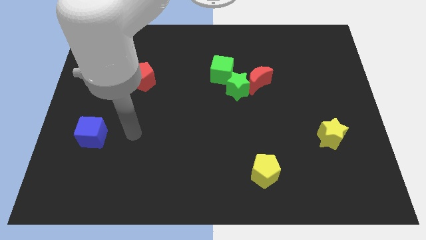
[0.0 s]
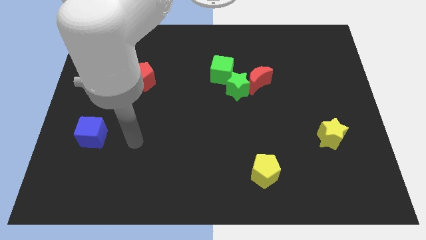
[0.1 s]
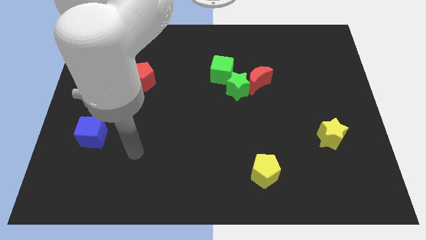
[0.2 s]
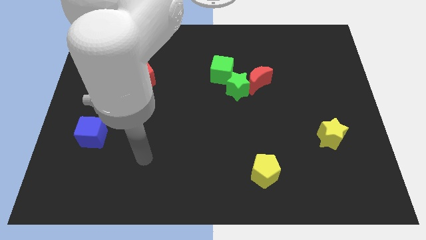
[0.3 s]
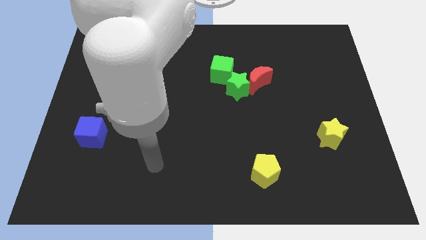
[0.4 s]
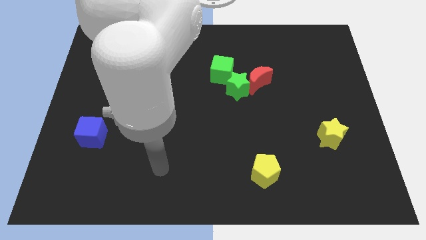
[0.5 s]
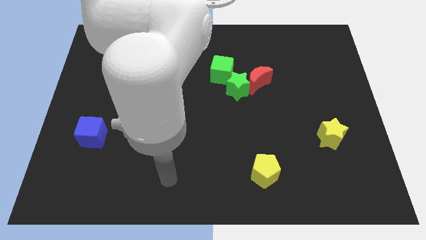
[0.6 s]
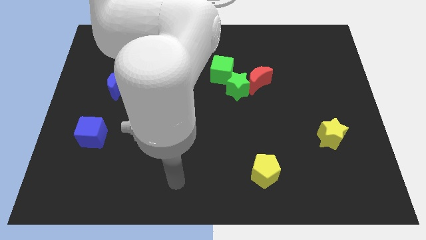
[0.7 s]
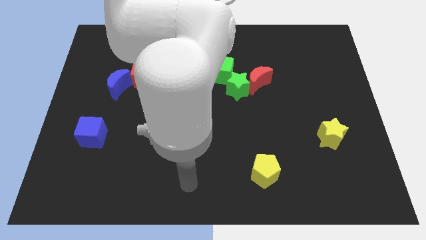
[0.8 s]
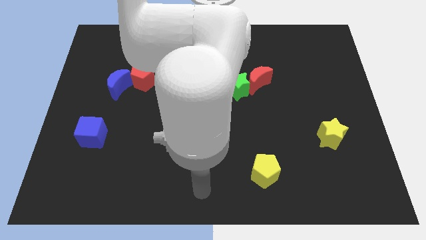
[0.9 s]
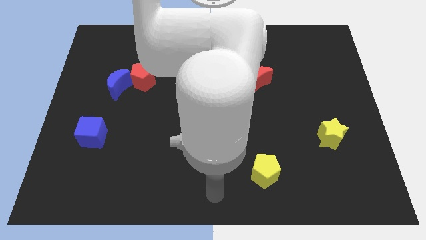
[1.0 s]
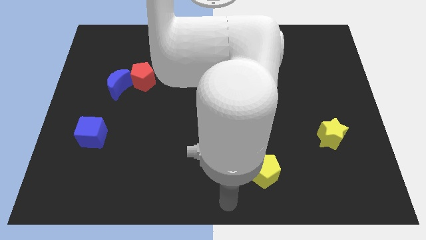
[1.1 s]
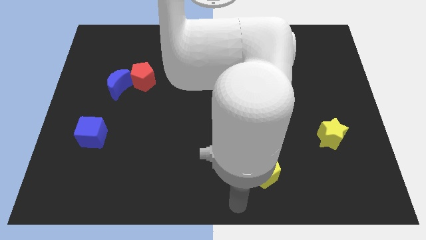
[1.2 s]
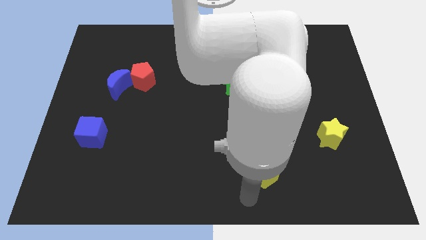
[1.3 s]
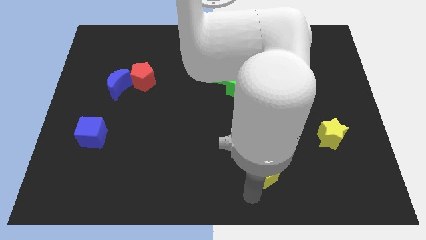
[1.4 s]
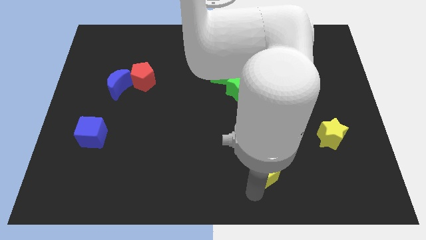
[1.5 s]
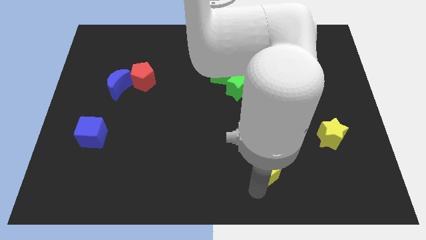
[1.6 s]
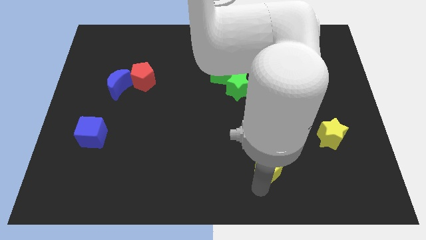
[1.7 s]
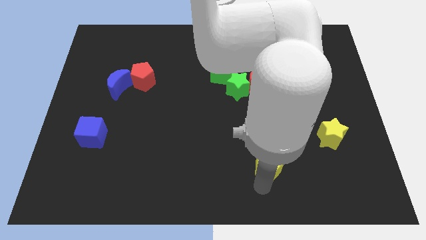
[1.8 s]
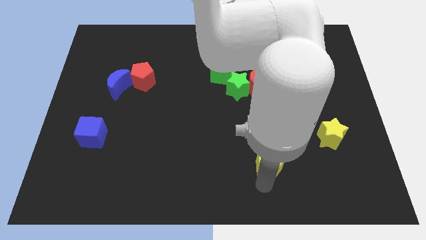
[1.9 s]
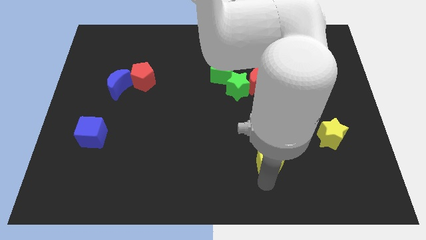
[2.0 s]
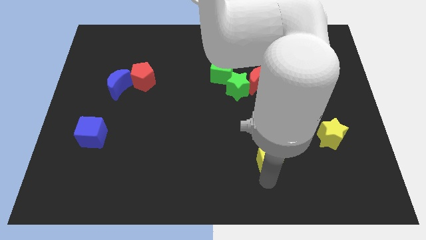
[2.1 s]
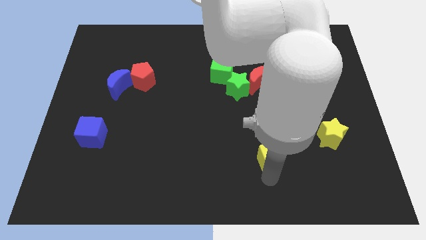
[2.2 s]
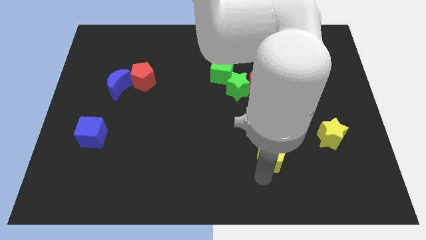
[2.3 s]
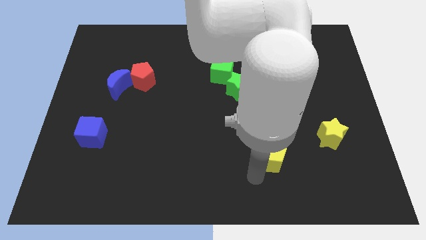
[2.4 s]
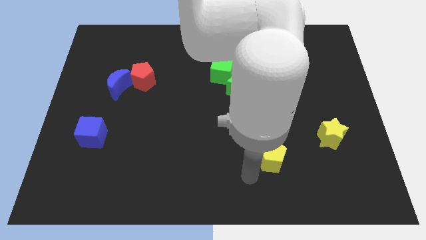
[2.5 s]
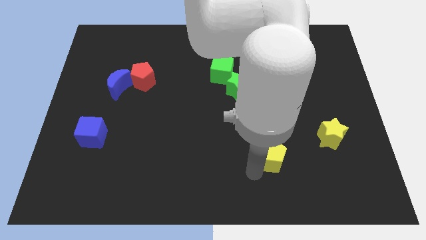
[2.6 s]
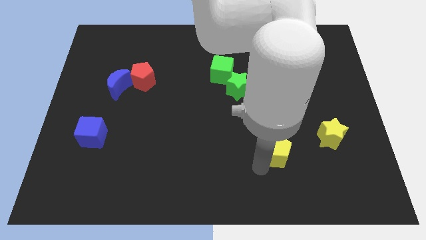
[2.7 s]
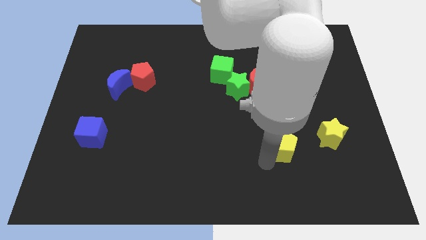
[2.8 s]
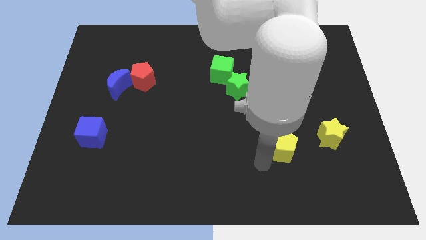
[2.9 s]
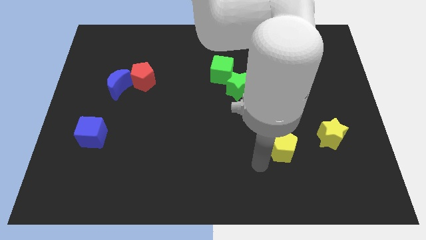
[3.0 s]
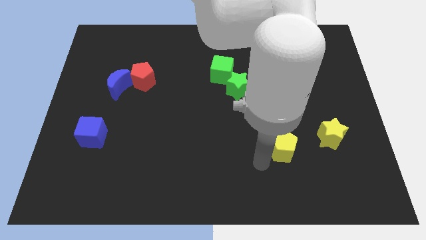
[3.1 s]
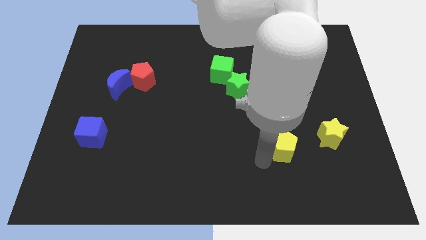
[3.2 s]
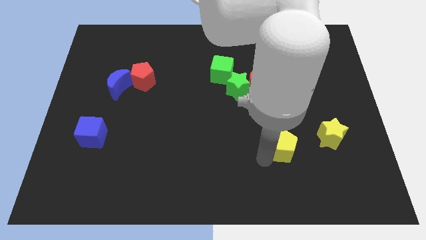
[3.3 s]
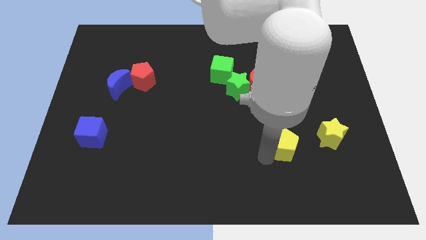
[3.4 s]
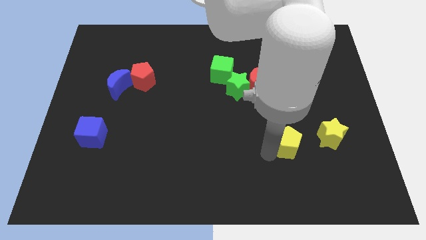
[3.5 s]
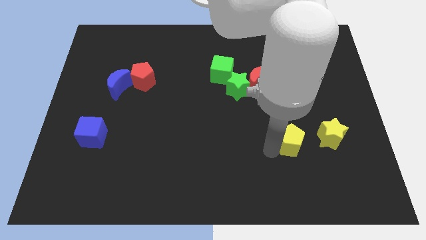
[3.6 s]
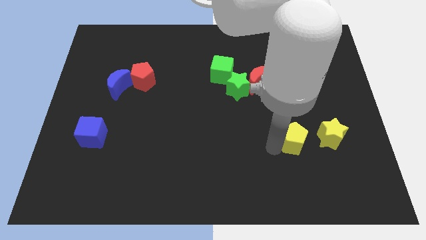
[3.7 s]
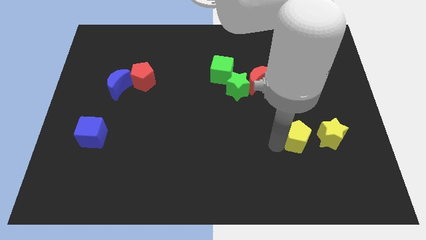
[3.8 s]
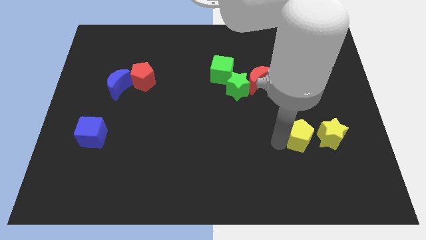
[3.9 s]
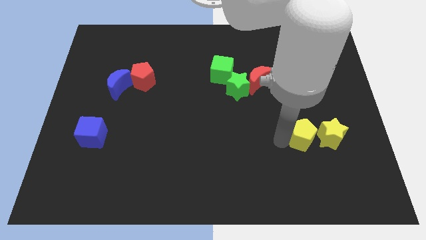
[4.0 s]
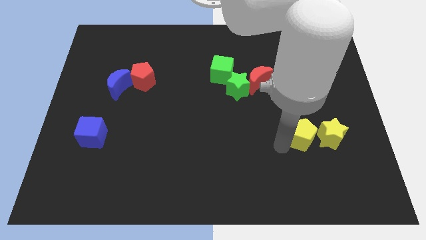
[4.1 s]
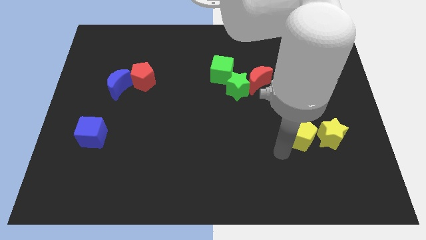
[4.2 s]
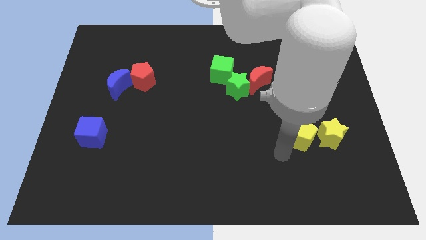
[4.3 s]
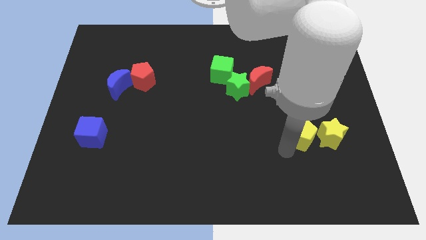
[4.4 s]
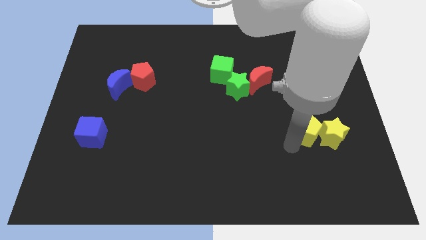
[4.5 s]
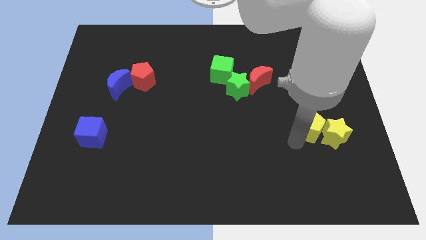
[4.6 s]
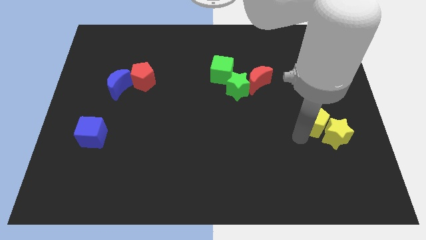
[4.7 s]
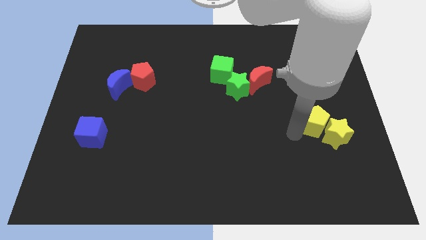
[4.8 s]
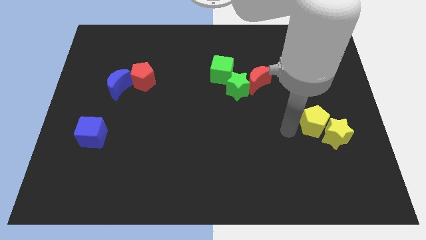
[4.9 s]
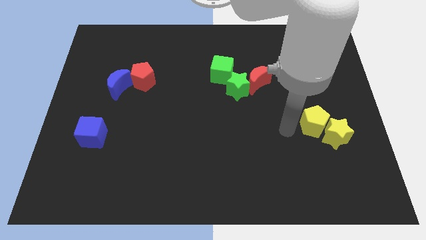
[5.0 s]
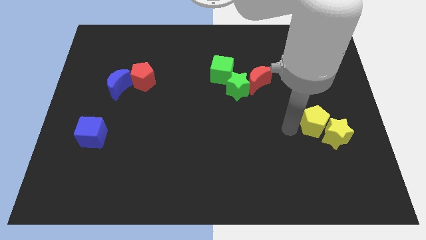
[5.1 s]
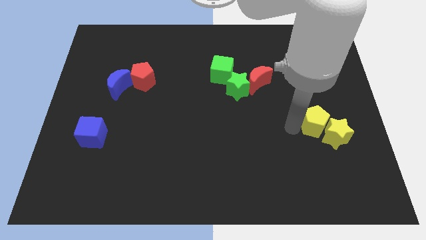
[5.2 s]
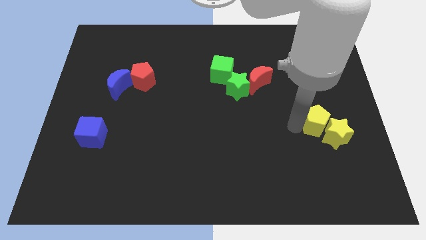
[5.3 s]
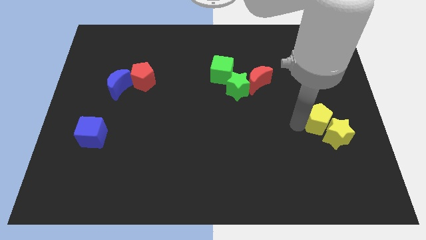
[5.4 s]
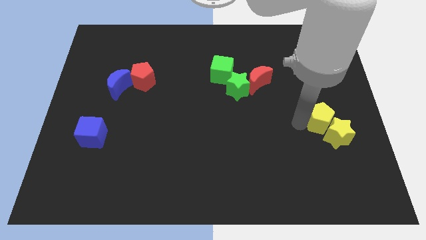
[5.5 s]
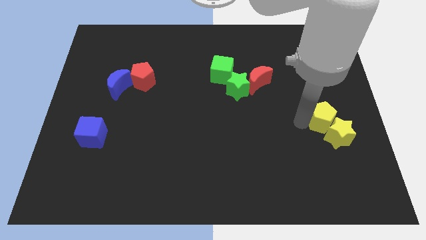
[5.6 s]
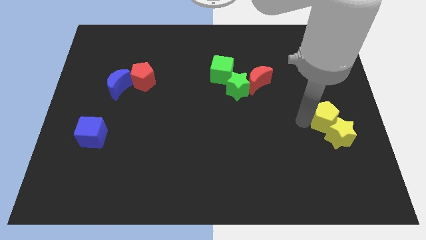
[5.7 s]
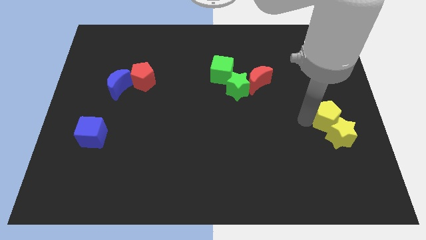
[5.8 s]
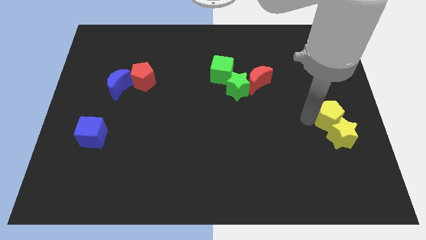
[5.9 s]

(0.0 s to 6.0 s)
put the yellow pentagon to the center right
